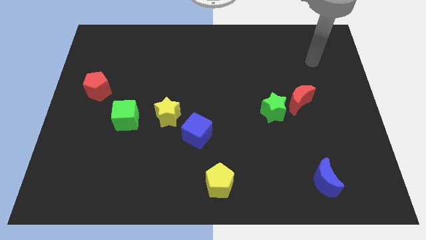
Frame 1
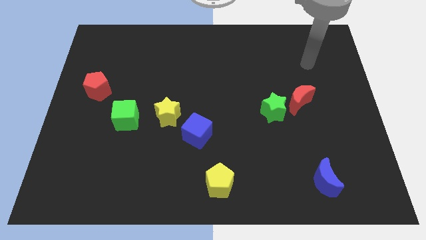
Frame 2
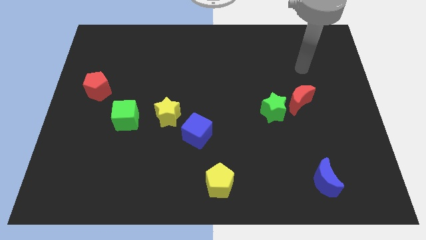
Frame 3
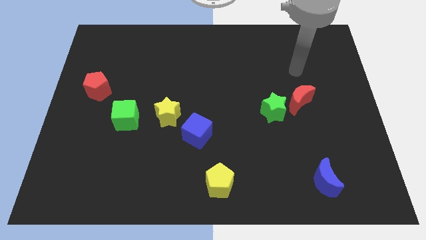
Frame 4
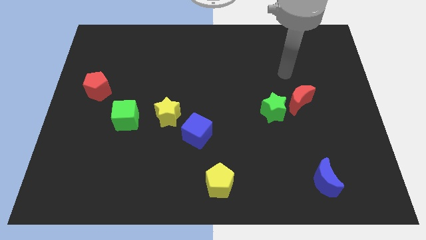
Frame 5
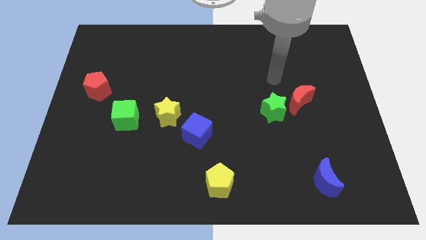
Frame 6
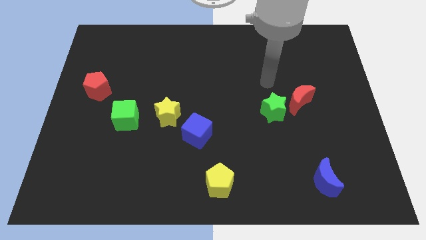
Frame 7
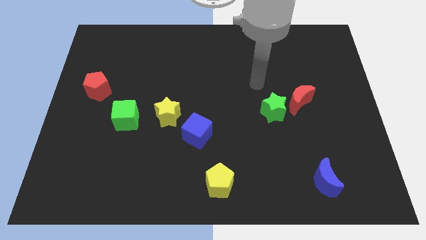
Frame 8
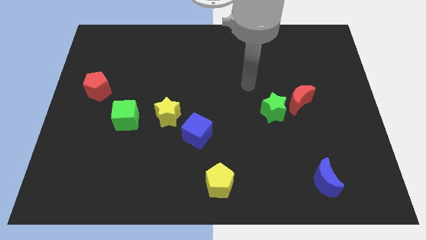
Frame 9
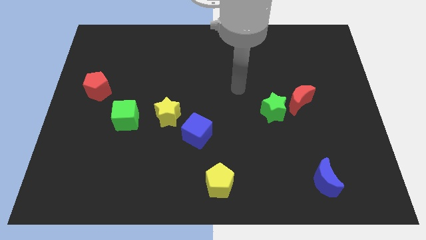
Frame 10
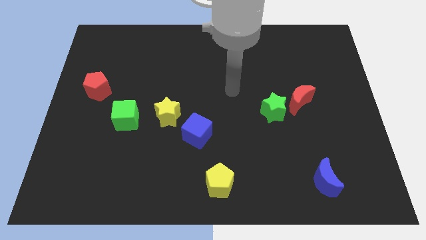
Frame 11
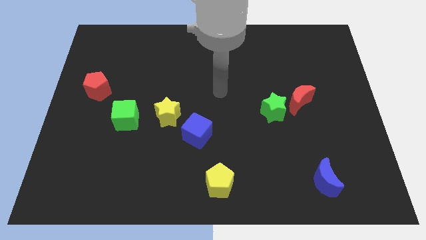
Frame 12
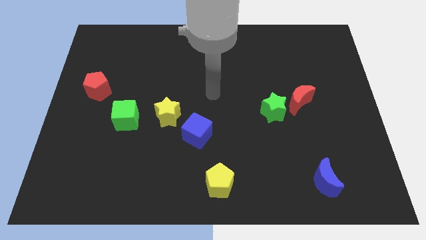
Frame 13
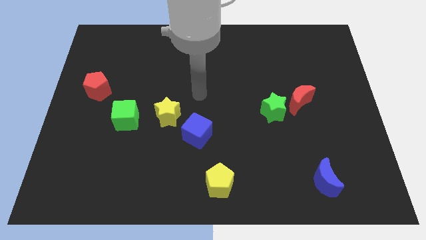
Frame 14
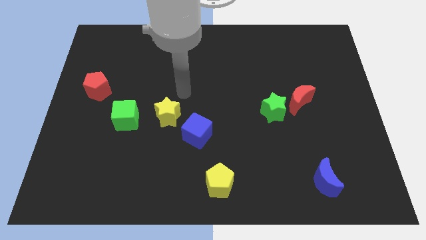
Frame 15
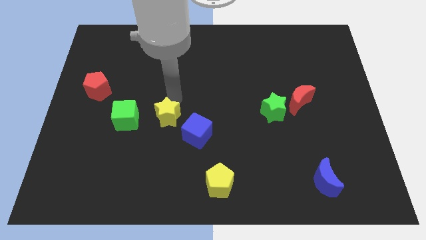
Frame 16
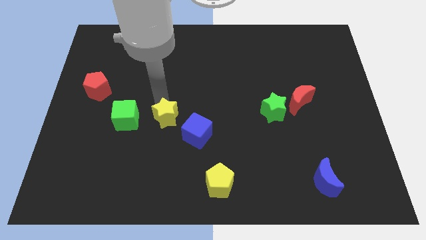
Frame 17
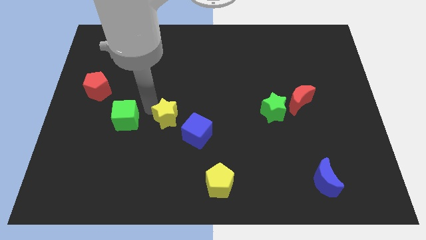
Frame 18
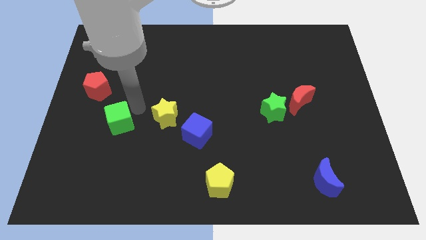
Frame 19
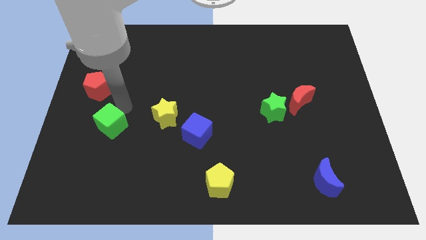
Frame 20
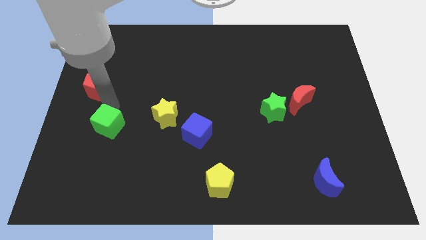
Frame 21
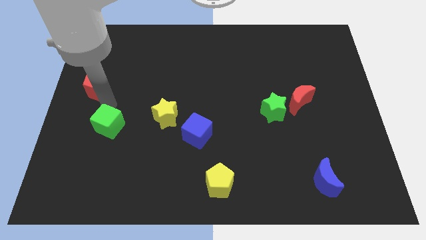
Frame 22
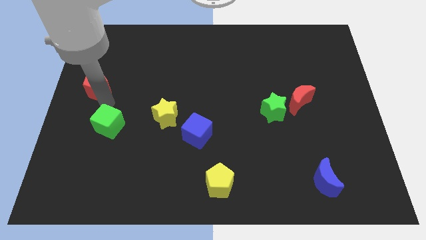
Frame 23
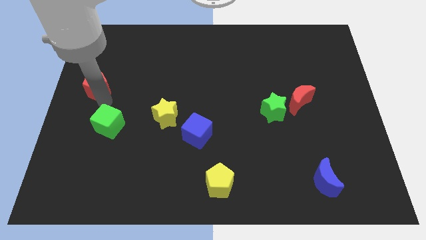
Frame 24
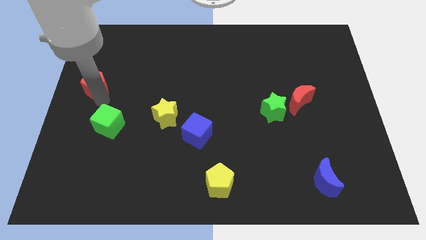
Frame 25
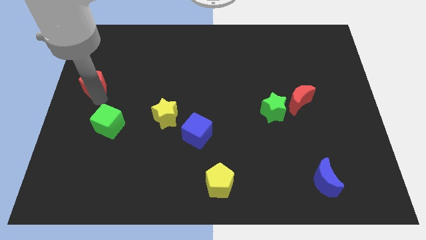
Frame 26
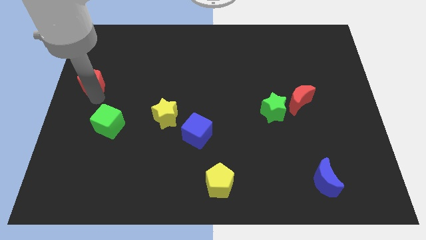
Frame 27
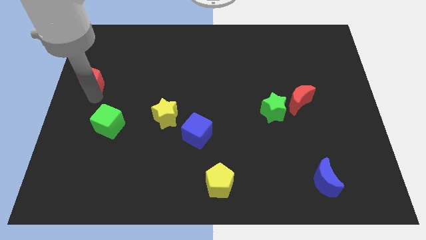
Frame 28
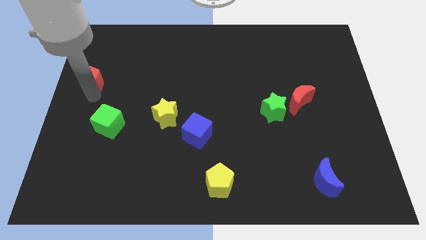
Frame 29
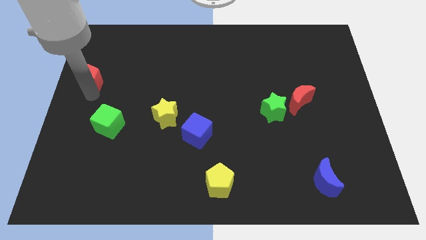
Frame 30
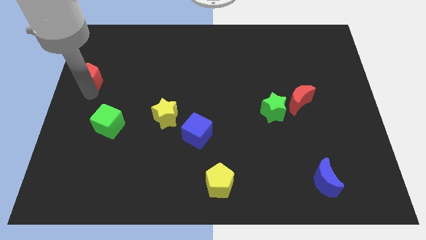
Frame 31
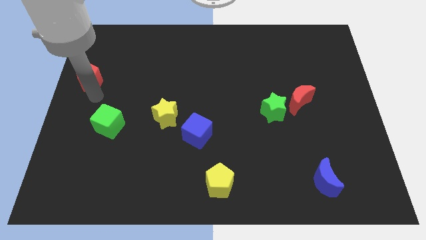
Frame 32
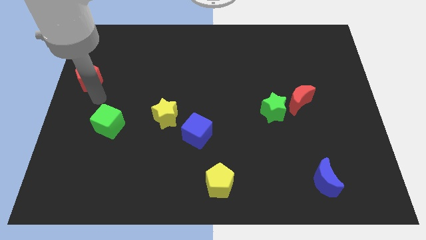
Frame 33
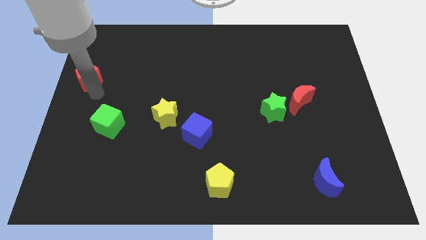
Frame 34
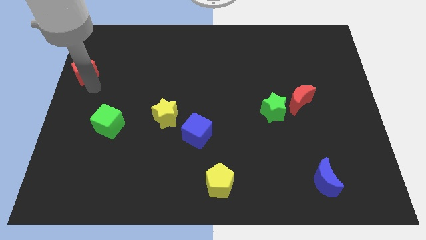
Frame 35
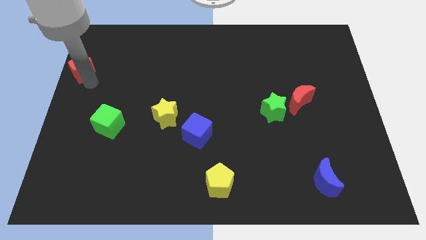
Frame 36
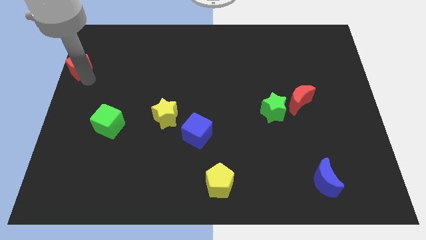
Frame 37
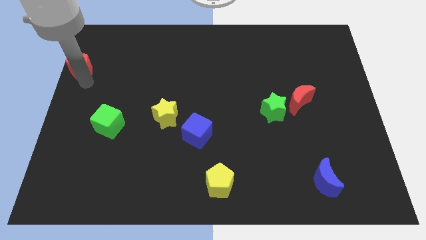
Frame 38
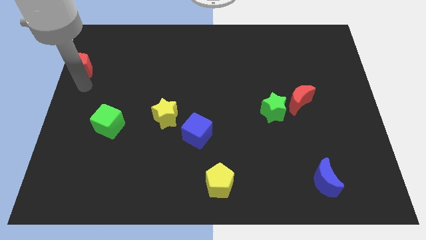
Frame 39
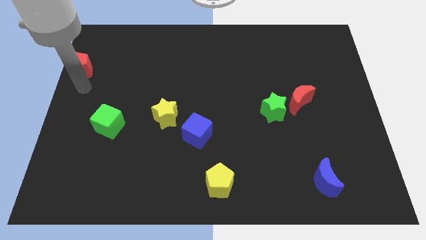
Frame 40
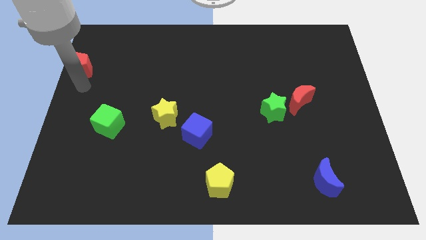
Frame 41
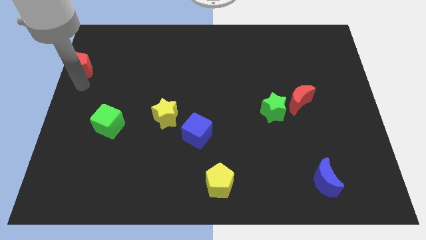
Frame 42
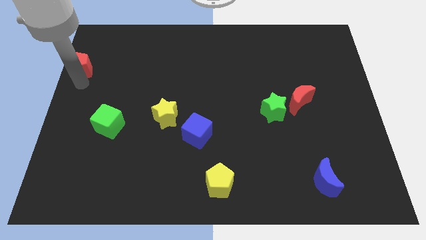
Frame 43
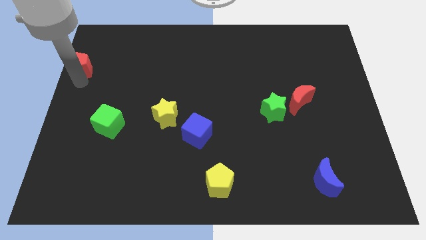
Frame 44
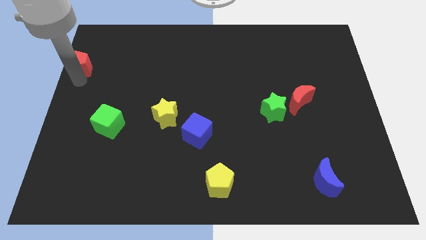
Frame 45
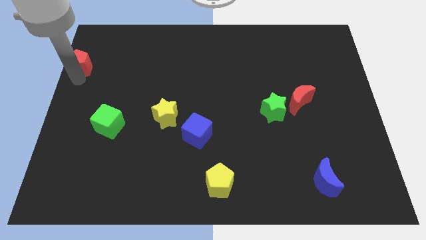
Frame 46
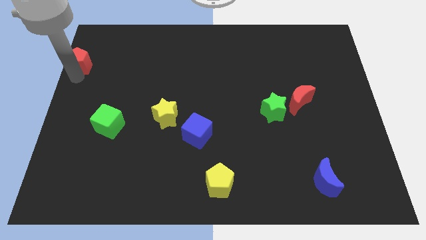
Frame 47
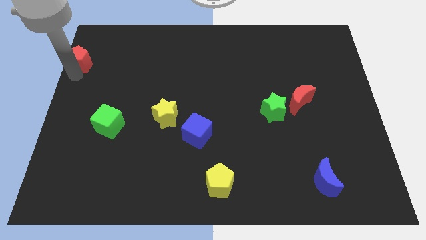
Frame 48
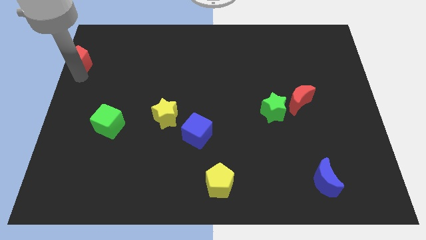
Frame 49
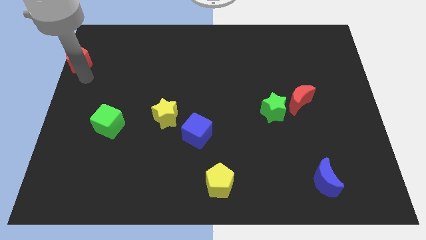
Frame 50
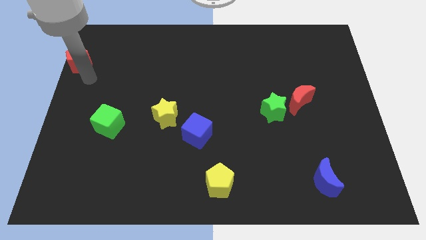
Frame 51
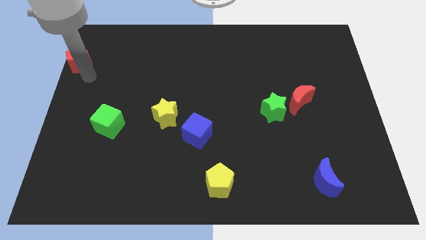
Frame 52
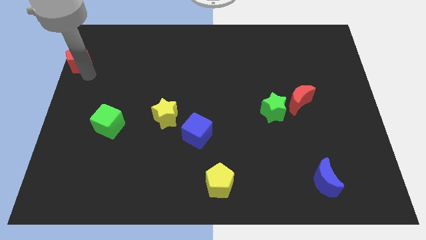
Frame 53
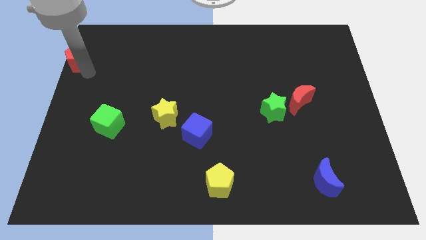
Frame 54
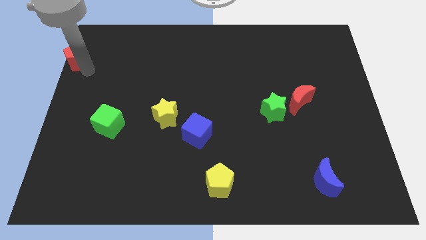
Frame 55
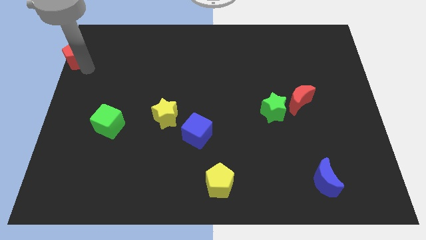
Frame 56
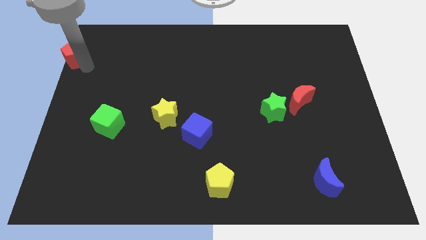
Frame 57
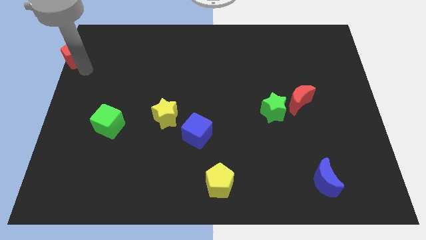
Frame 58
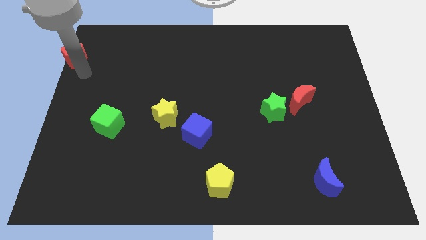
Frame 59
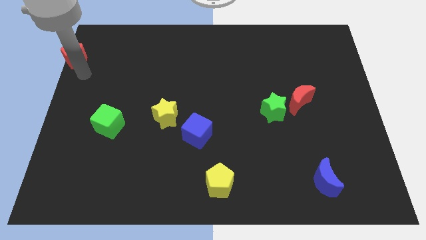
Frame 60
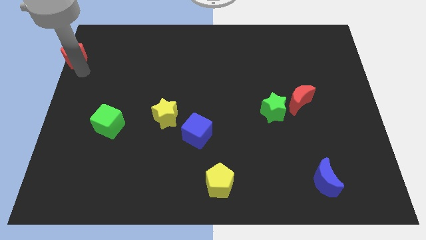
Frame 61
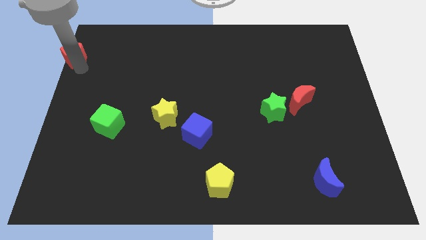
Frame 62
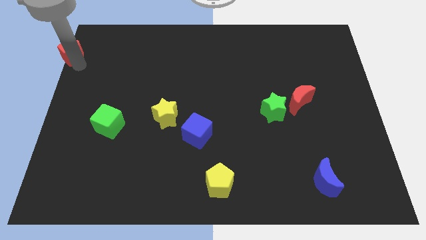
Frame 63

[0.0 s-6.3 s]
push the red pentagon to the top left of the board
